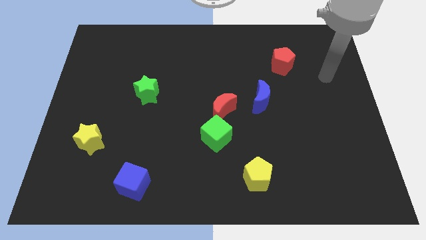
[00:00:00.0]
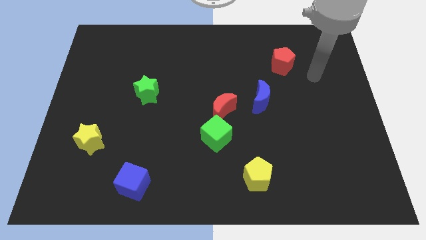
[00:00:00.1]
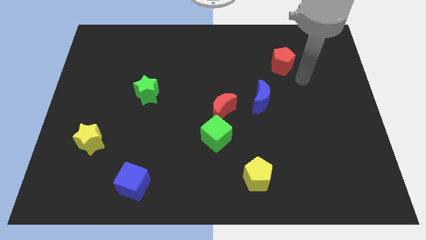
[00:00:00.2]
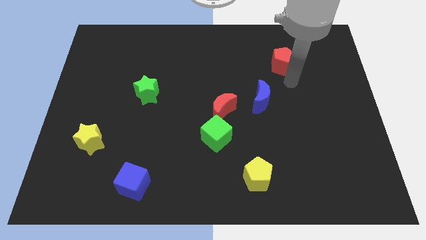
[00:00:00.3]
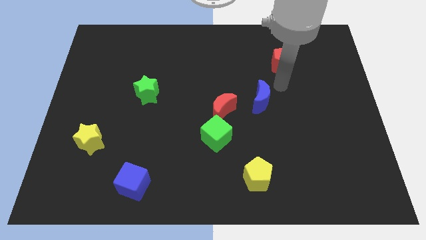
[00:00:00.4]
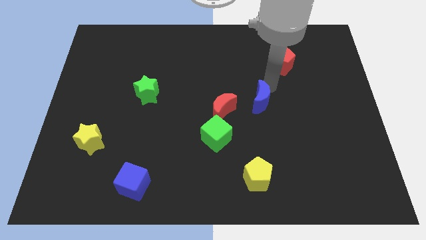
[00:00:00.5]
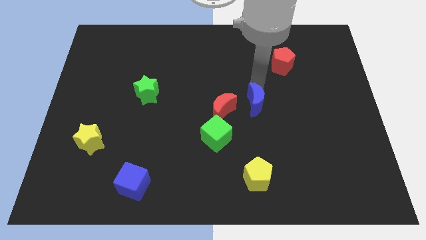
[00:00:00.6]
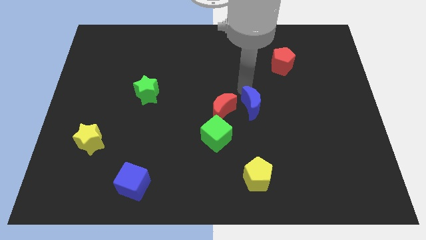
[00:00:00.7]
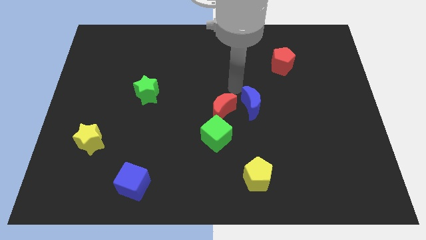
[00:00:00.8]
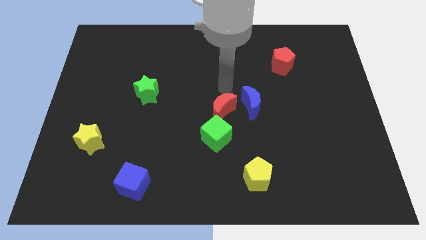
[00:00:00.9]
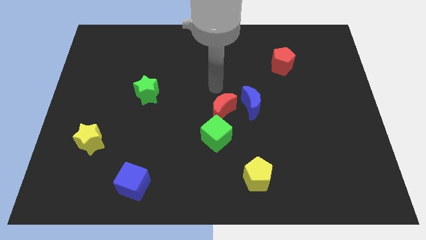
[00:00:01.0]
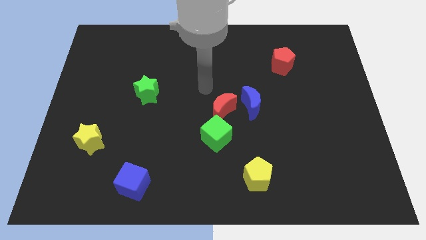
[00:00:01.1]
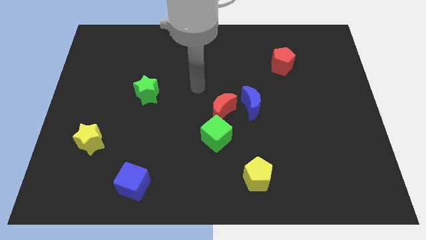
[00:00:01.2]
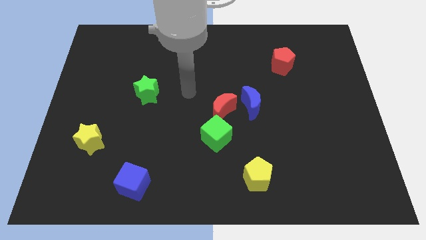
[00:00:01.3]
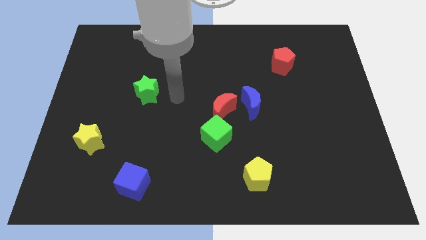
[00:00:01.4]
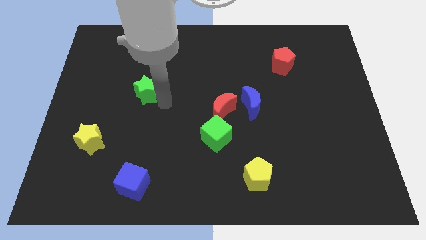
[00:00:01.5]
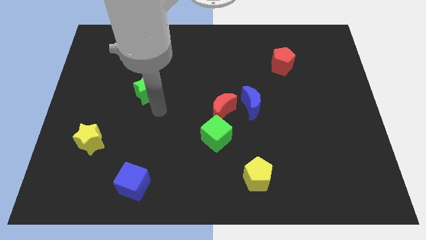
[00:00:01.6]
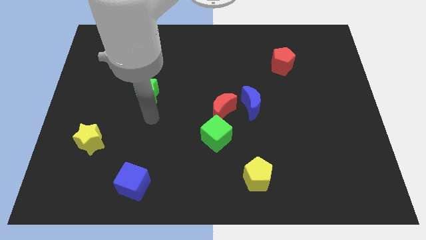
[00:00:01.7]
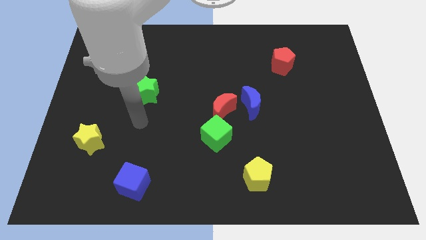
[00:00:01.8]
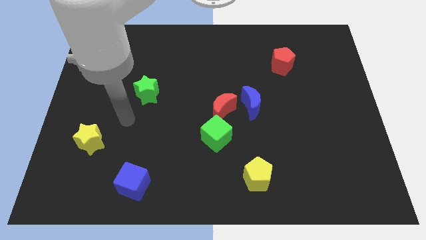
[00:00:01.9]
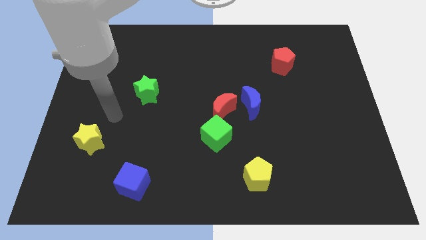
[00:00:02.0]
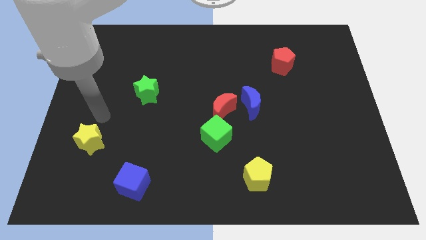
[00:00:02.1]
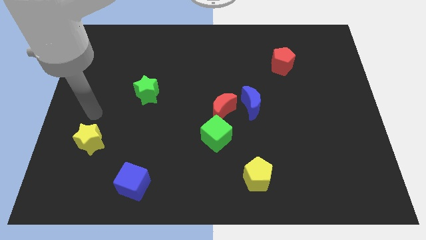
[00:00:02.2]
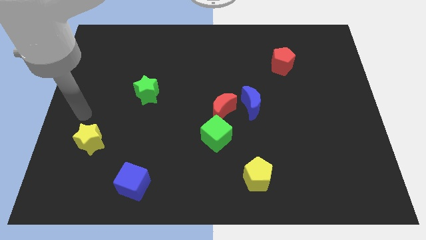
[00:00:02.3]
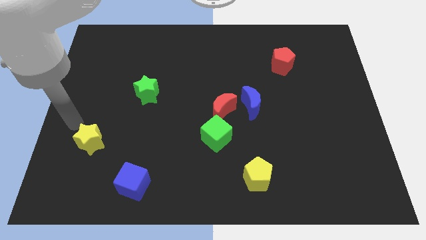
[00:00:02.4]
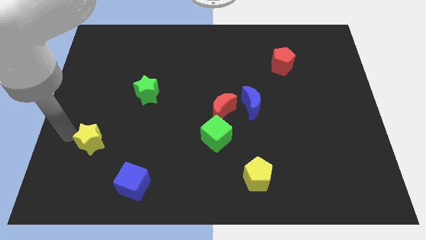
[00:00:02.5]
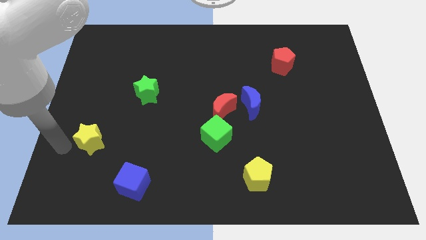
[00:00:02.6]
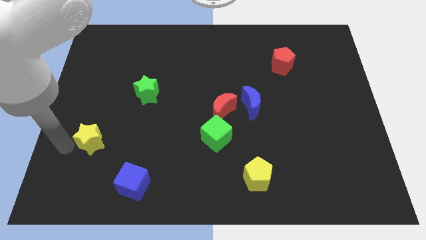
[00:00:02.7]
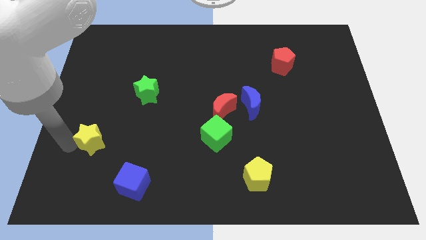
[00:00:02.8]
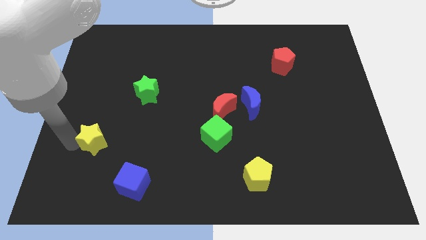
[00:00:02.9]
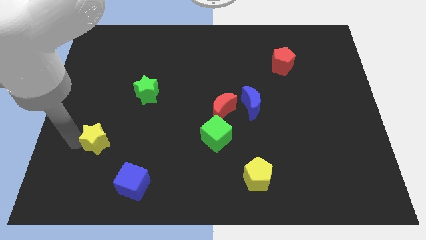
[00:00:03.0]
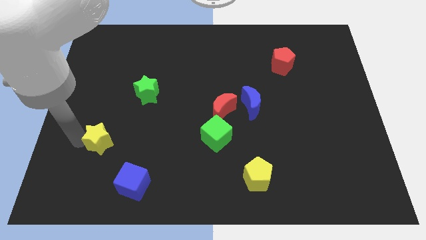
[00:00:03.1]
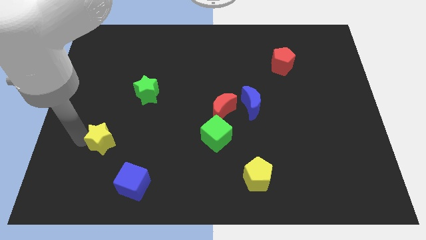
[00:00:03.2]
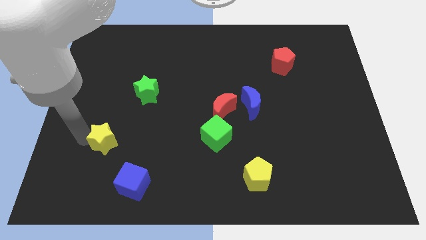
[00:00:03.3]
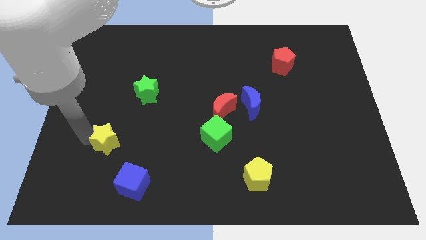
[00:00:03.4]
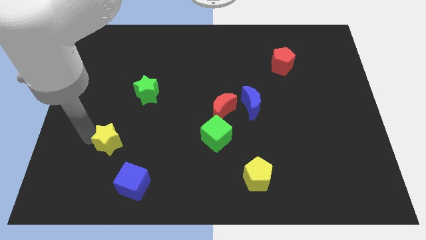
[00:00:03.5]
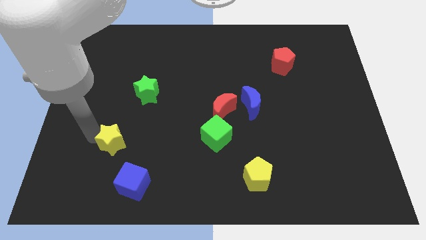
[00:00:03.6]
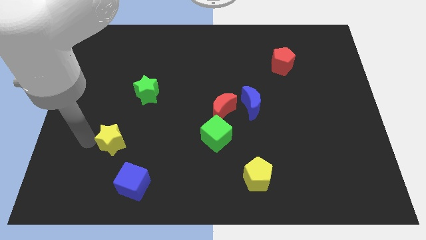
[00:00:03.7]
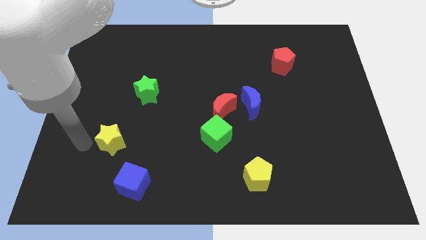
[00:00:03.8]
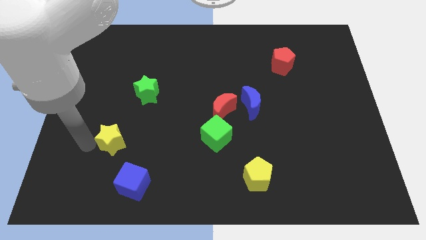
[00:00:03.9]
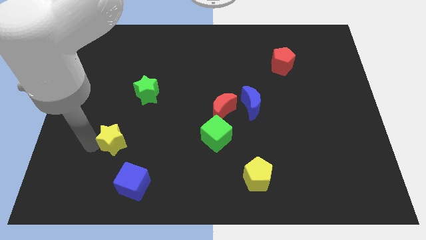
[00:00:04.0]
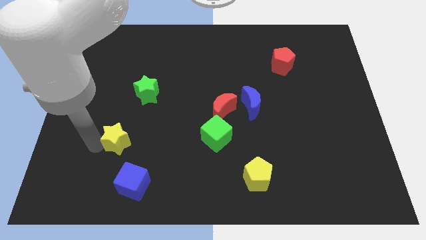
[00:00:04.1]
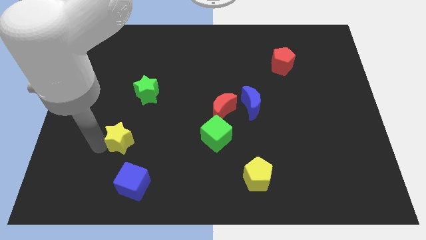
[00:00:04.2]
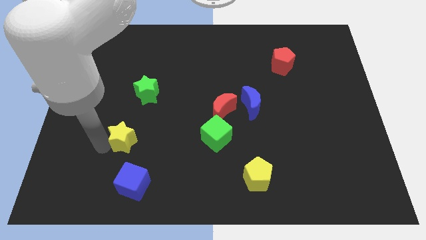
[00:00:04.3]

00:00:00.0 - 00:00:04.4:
push the yellow star right somewhat

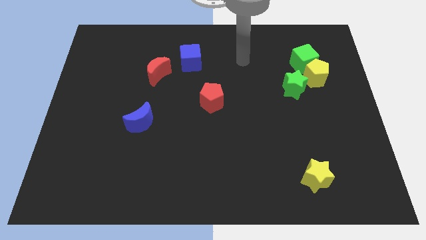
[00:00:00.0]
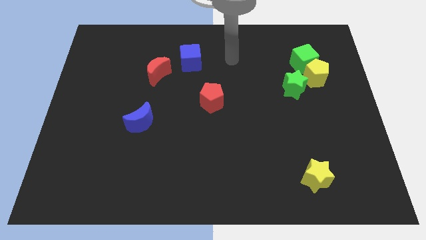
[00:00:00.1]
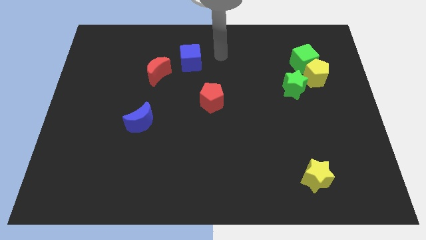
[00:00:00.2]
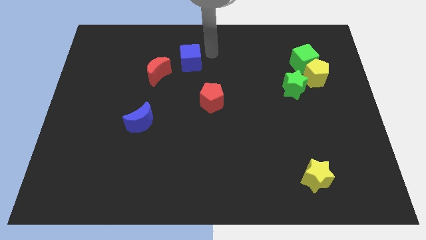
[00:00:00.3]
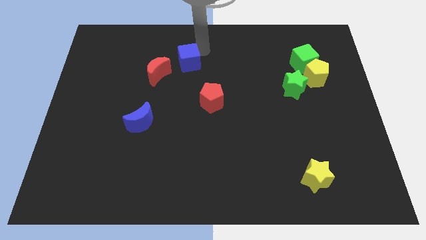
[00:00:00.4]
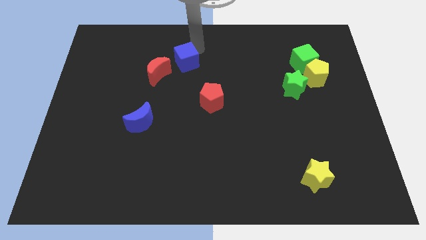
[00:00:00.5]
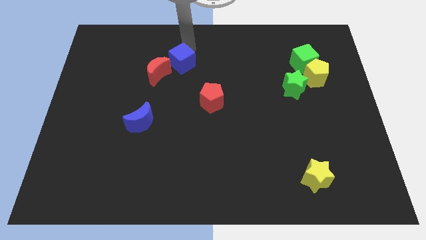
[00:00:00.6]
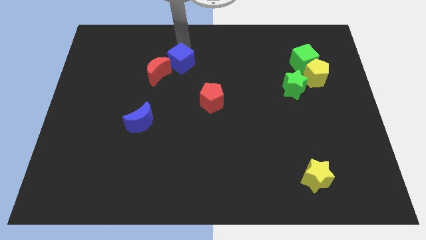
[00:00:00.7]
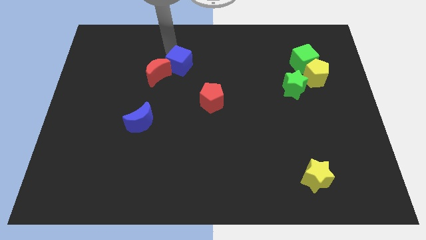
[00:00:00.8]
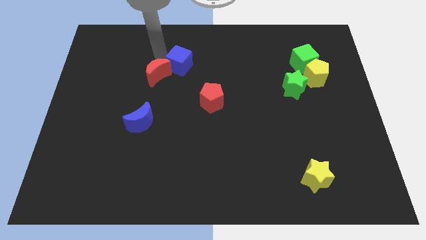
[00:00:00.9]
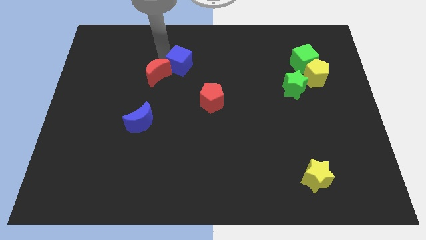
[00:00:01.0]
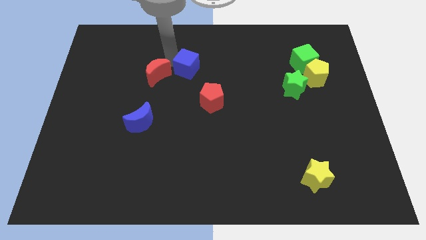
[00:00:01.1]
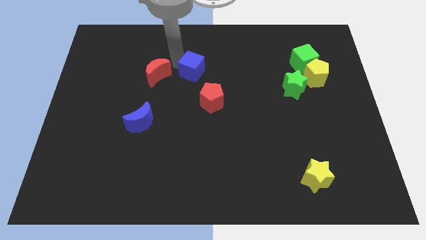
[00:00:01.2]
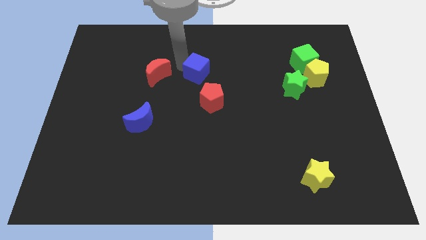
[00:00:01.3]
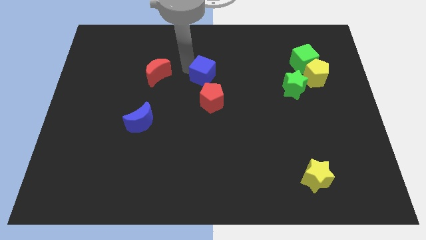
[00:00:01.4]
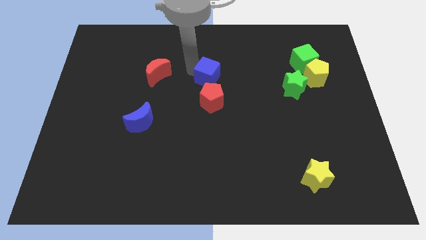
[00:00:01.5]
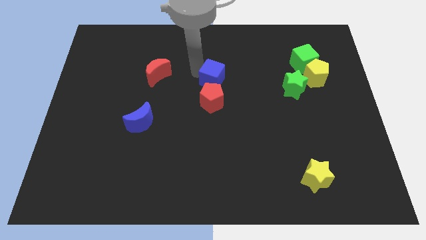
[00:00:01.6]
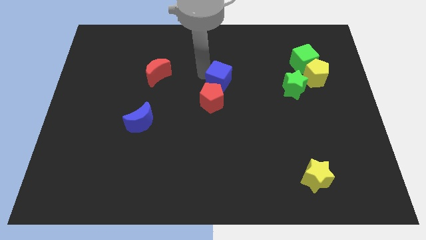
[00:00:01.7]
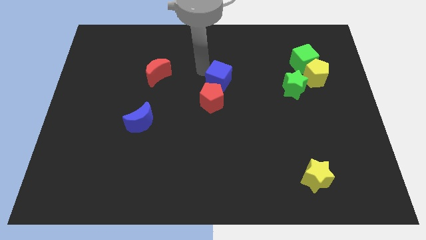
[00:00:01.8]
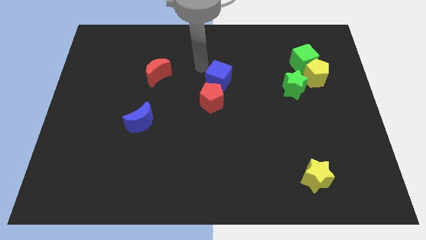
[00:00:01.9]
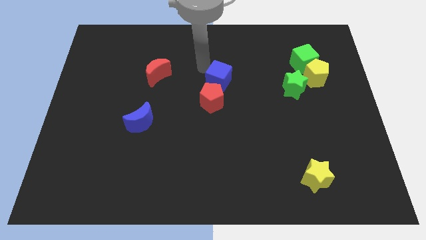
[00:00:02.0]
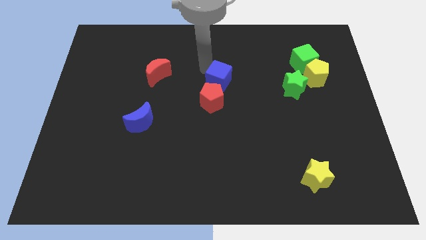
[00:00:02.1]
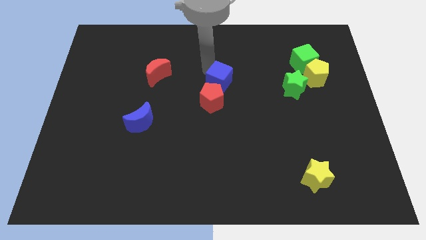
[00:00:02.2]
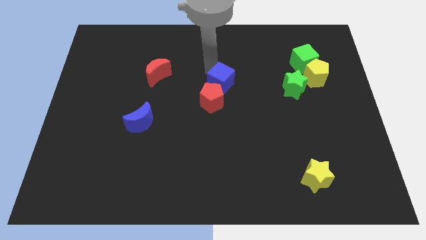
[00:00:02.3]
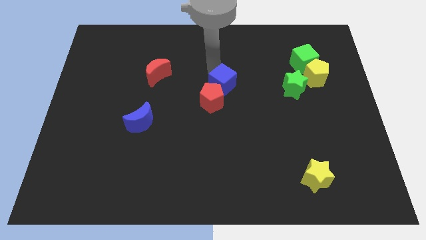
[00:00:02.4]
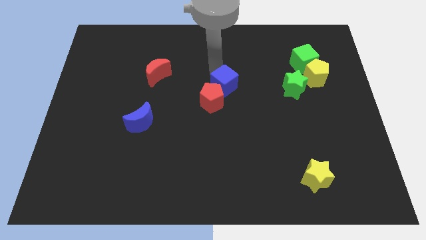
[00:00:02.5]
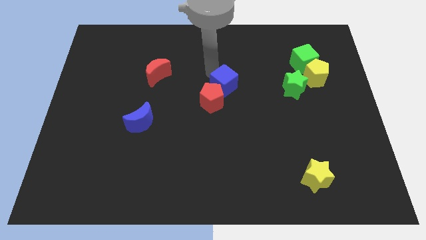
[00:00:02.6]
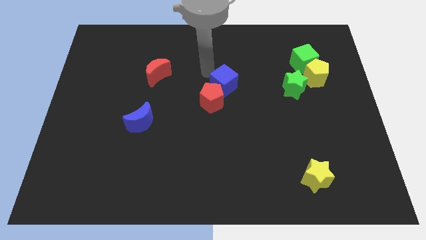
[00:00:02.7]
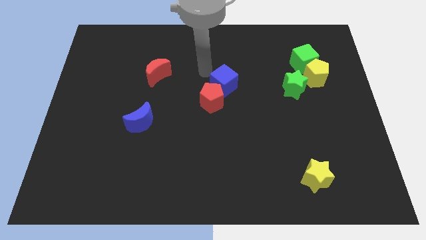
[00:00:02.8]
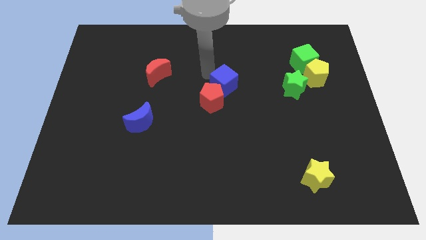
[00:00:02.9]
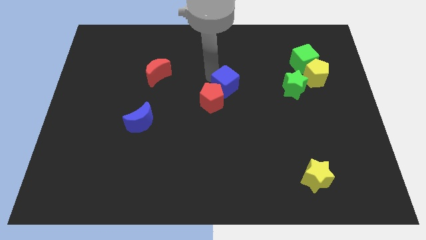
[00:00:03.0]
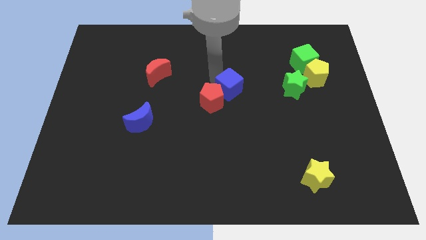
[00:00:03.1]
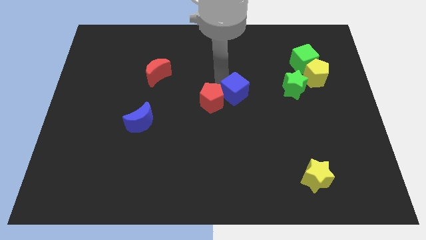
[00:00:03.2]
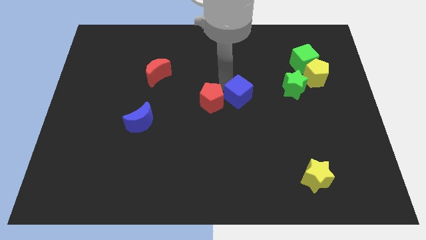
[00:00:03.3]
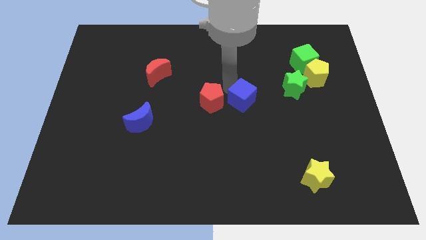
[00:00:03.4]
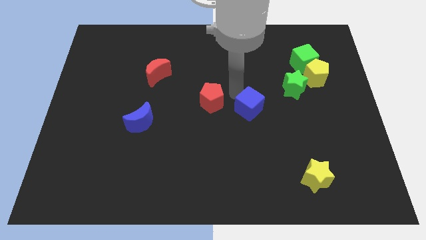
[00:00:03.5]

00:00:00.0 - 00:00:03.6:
slide the blue cube down and to the right diagonally
